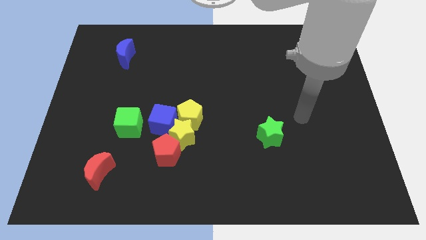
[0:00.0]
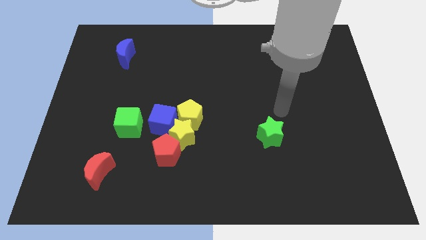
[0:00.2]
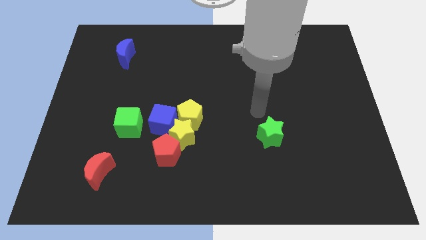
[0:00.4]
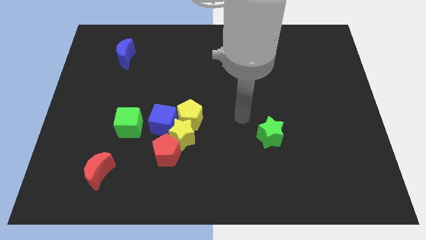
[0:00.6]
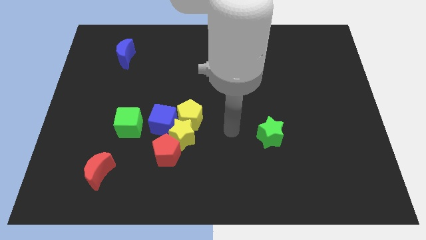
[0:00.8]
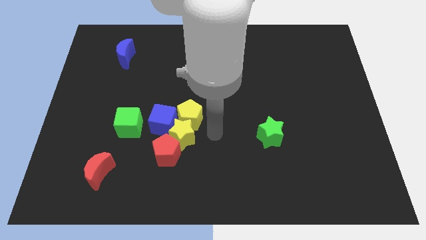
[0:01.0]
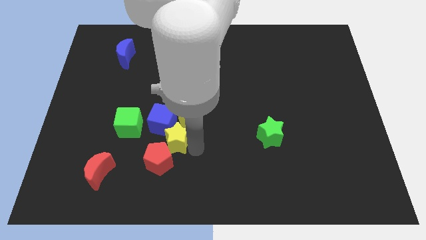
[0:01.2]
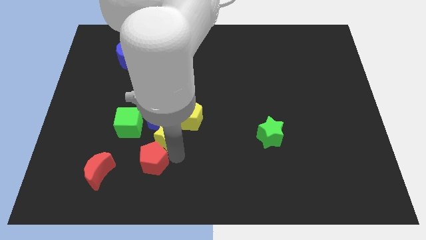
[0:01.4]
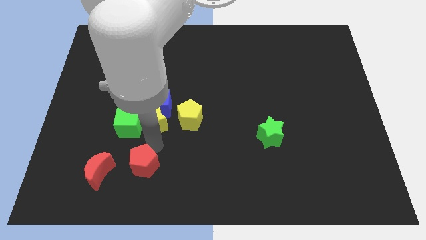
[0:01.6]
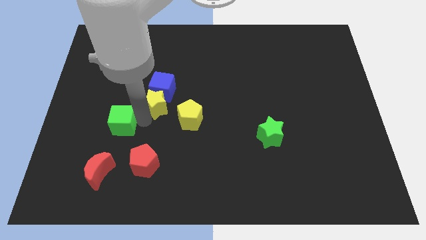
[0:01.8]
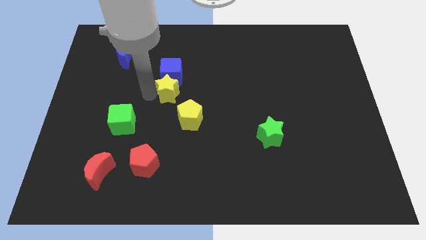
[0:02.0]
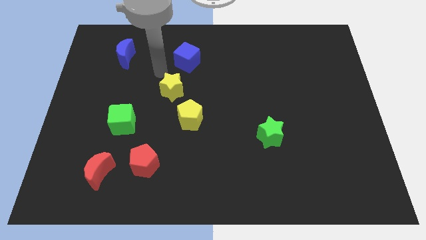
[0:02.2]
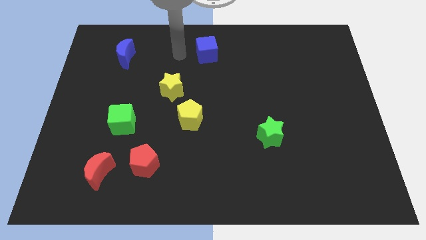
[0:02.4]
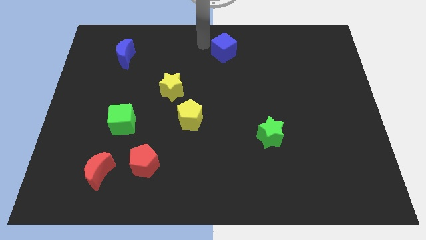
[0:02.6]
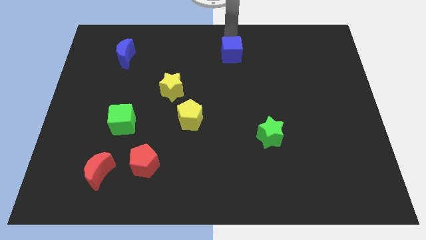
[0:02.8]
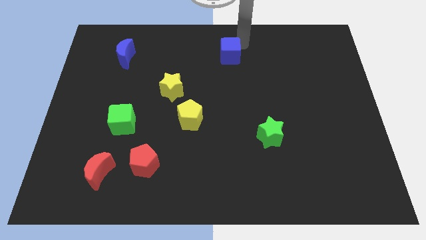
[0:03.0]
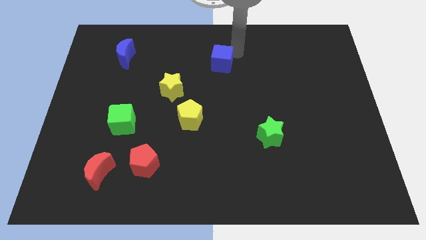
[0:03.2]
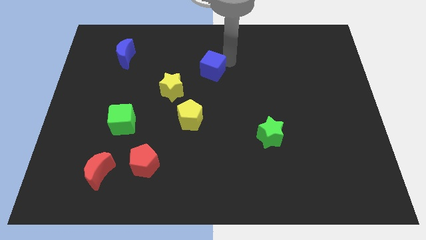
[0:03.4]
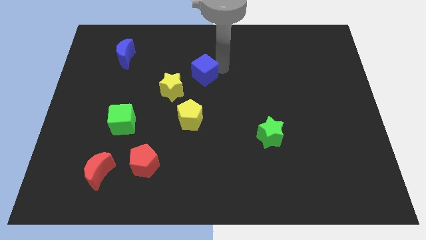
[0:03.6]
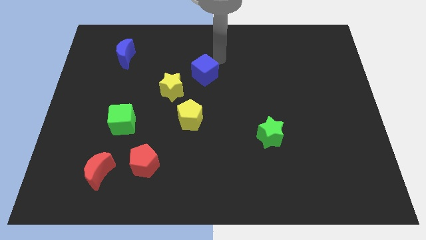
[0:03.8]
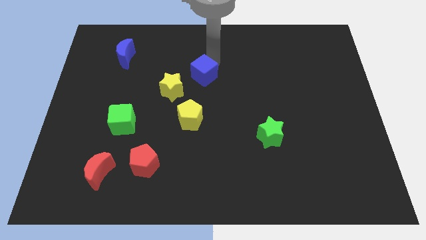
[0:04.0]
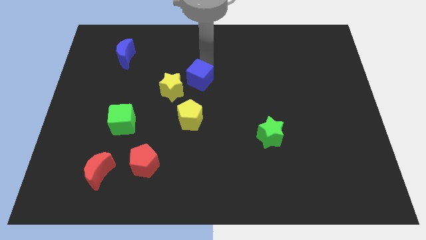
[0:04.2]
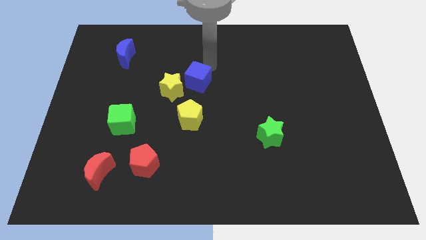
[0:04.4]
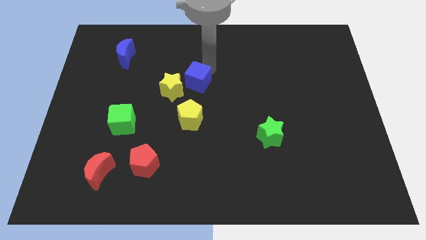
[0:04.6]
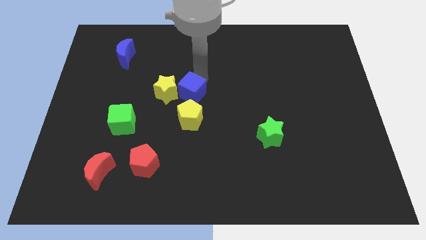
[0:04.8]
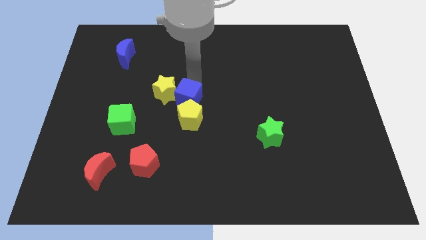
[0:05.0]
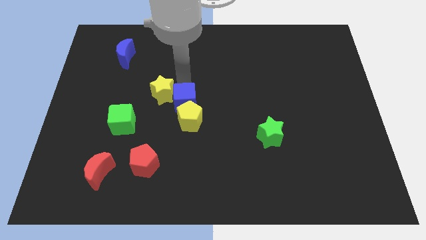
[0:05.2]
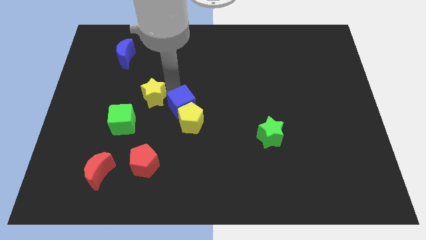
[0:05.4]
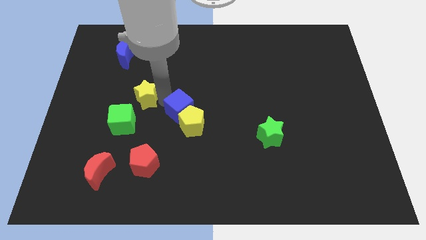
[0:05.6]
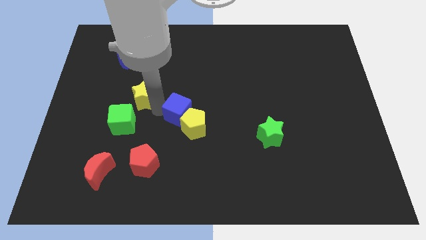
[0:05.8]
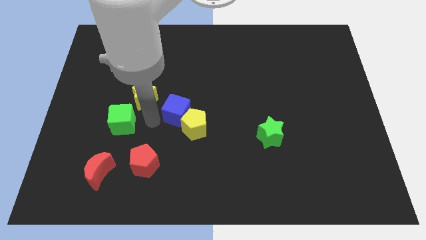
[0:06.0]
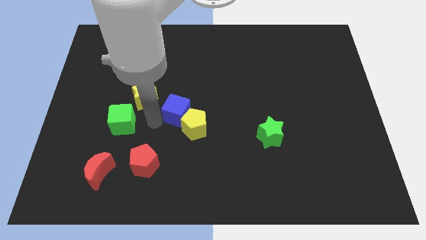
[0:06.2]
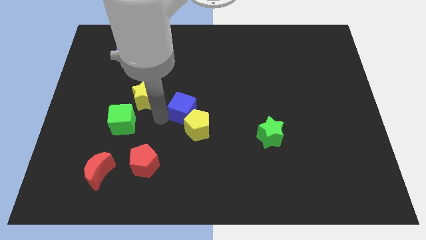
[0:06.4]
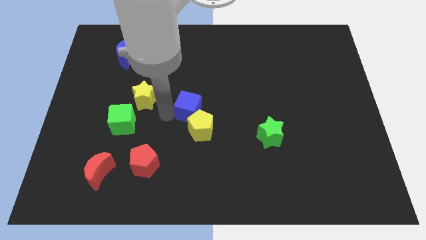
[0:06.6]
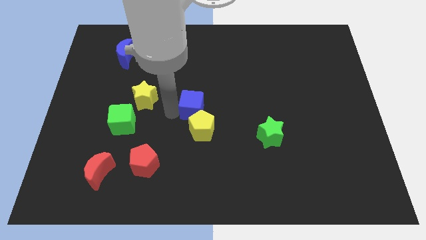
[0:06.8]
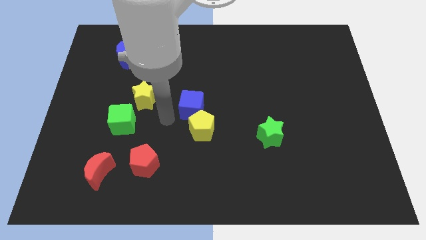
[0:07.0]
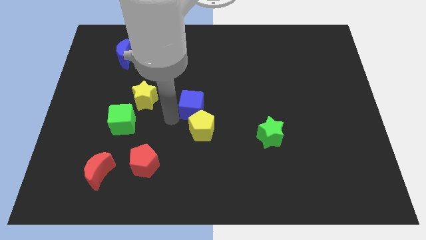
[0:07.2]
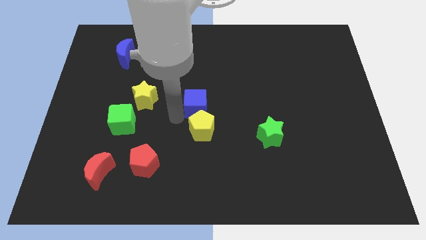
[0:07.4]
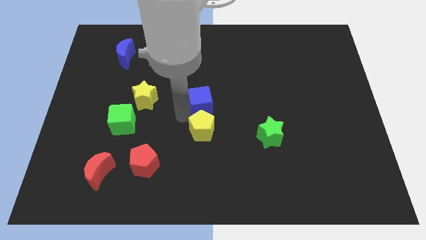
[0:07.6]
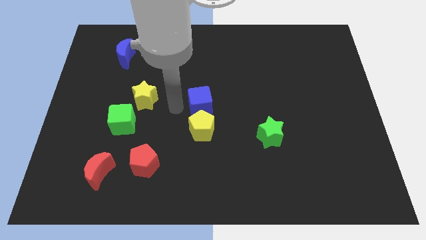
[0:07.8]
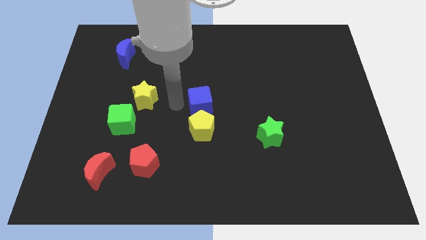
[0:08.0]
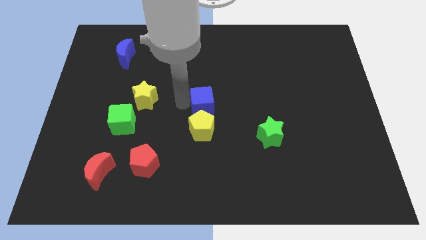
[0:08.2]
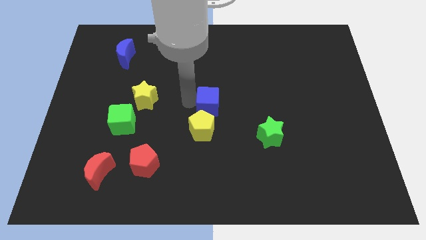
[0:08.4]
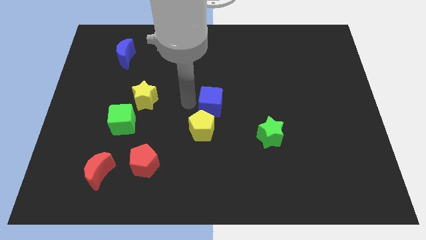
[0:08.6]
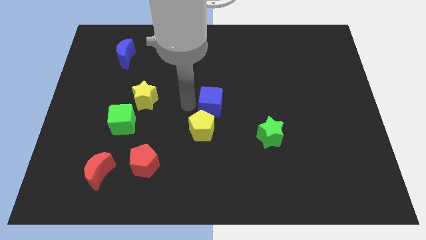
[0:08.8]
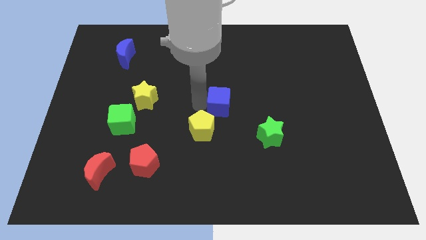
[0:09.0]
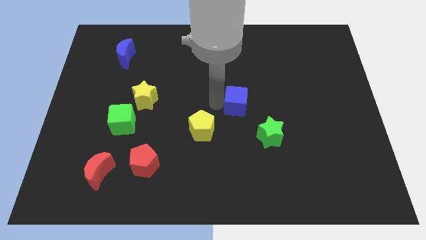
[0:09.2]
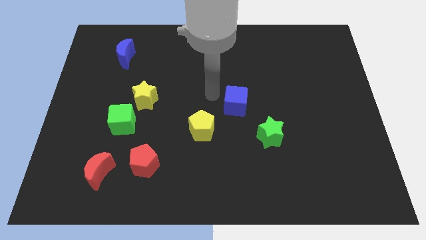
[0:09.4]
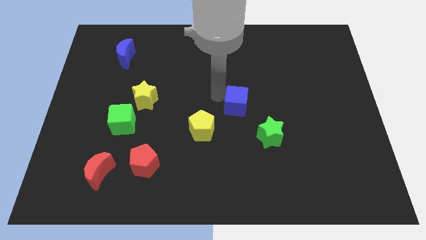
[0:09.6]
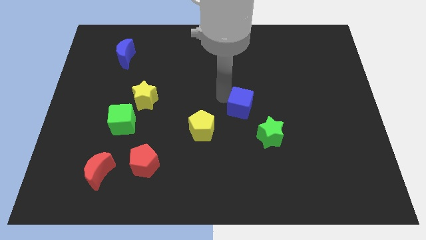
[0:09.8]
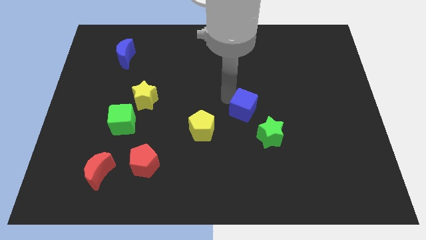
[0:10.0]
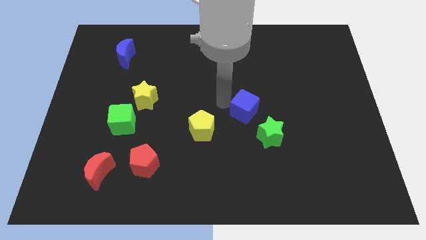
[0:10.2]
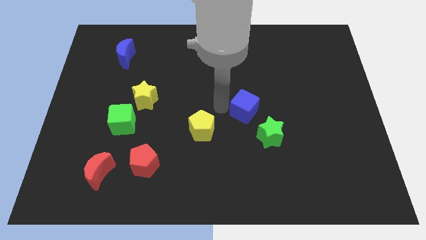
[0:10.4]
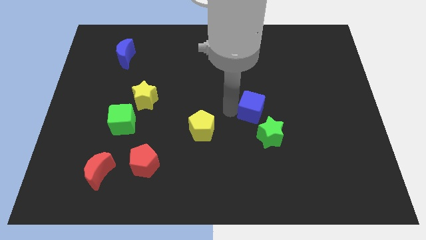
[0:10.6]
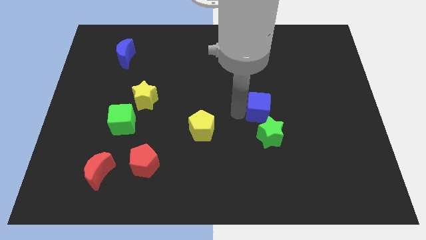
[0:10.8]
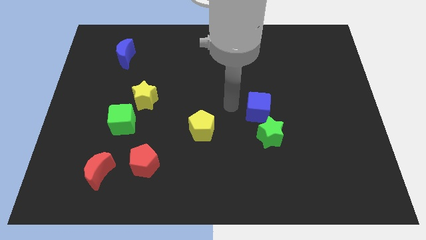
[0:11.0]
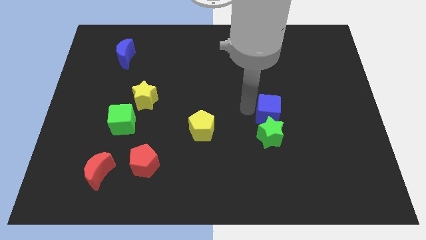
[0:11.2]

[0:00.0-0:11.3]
put the blue cube to the top right side of the green star

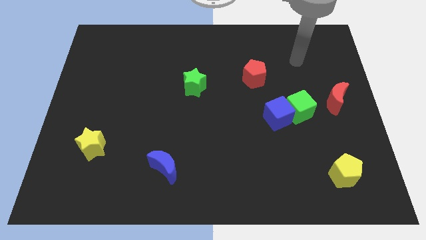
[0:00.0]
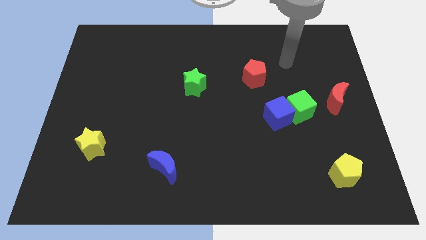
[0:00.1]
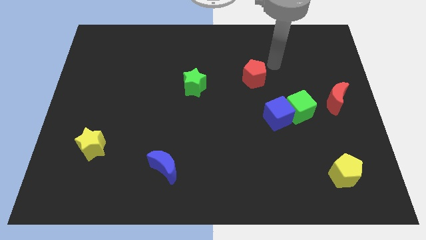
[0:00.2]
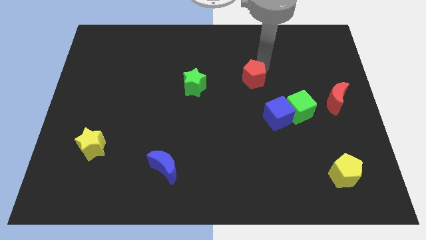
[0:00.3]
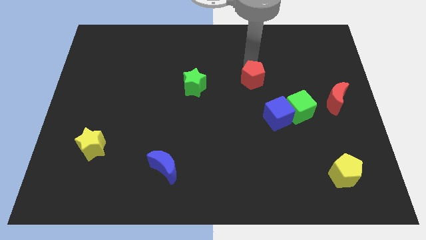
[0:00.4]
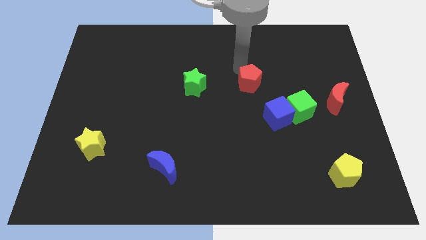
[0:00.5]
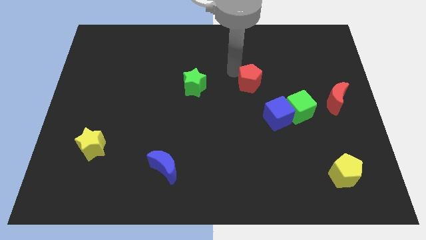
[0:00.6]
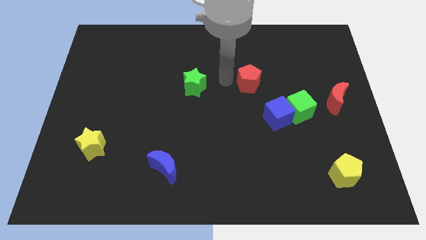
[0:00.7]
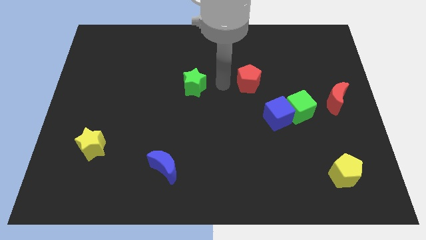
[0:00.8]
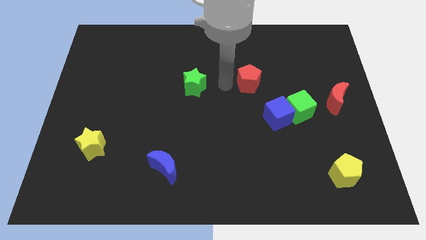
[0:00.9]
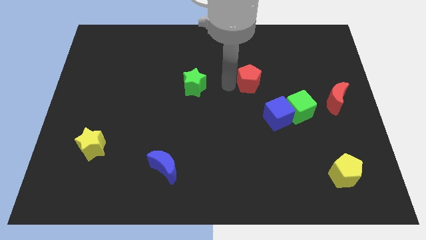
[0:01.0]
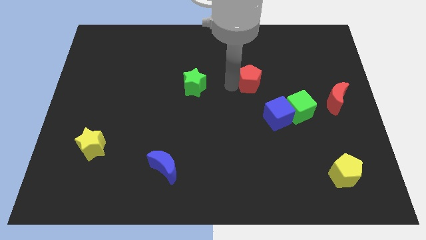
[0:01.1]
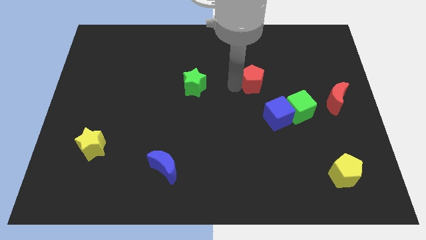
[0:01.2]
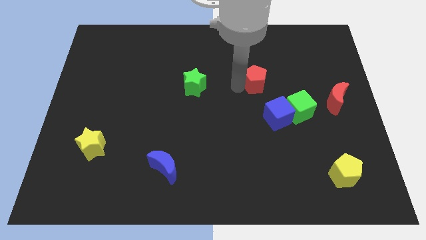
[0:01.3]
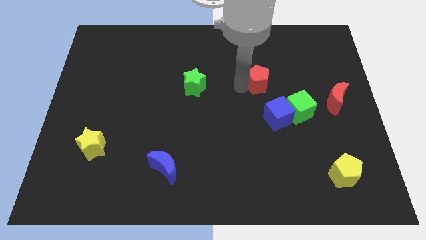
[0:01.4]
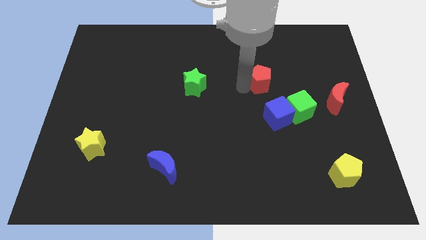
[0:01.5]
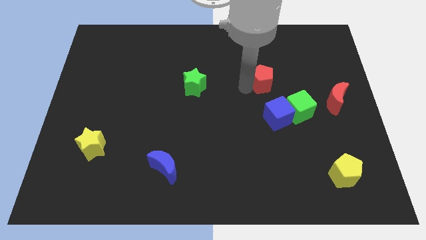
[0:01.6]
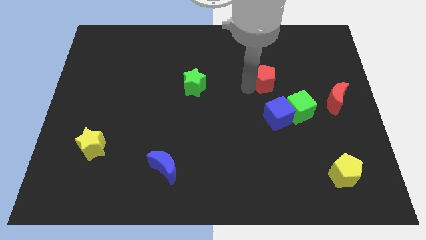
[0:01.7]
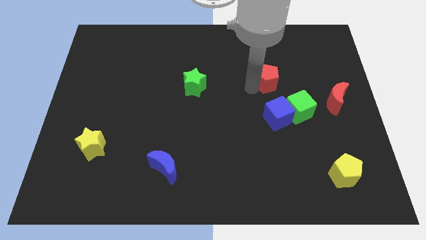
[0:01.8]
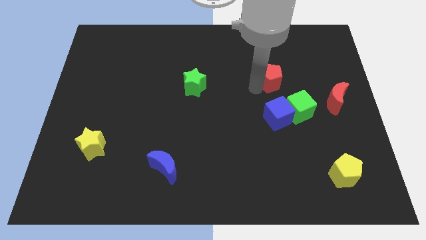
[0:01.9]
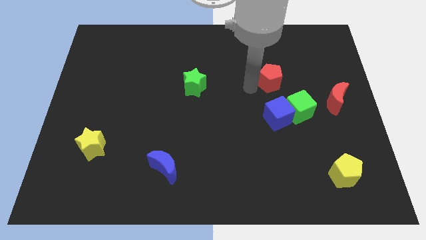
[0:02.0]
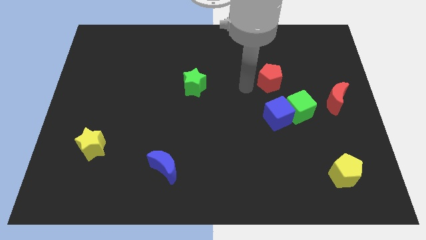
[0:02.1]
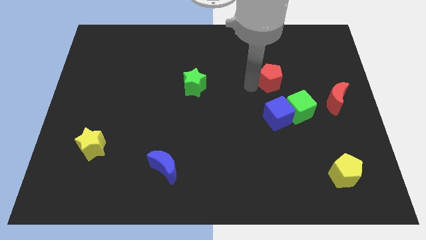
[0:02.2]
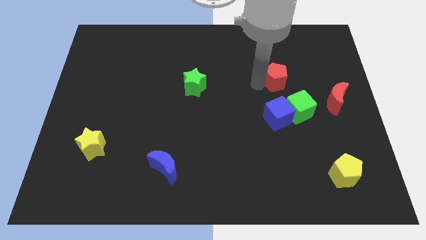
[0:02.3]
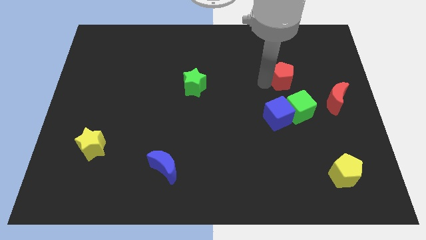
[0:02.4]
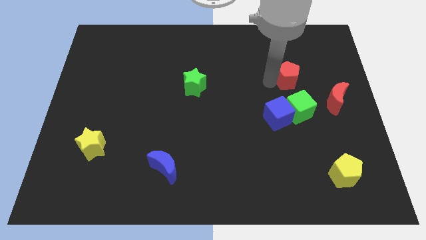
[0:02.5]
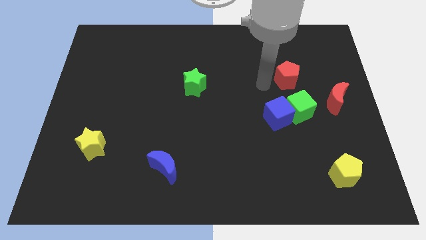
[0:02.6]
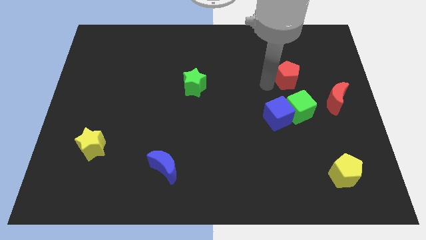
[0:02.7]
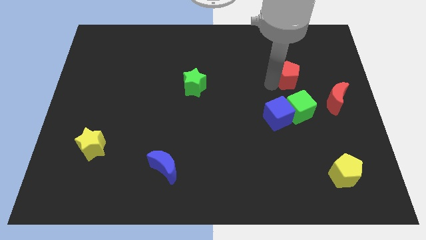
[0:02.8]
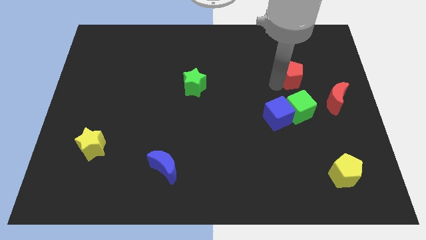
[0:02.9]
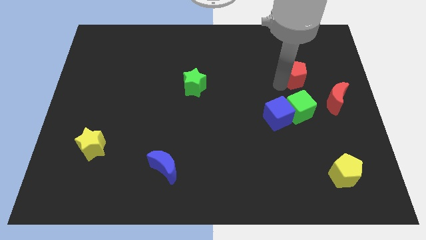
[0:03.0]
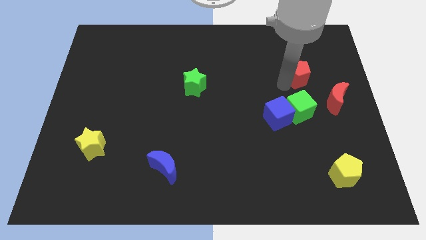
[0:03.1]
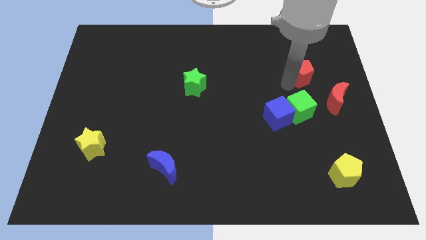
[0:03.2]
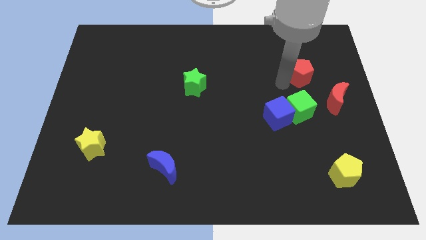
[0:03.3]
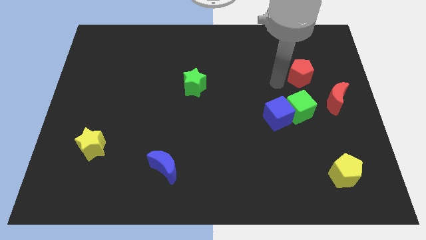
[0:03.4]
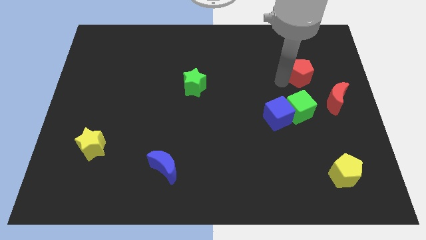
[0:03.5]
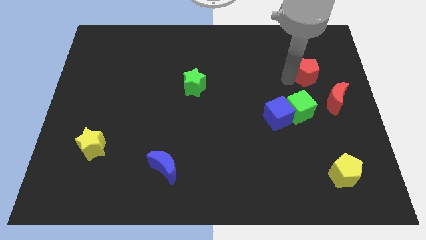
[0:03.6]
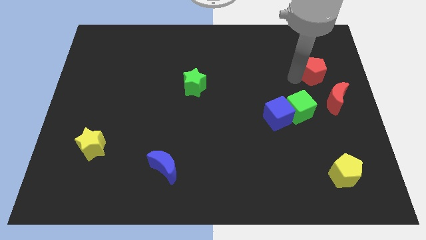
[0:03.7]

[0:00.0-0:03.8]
slide the red pentagon to the top side of the red moon
